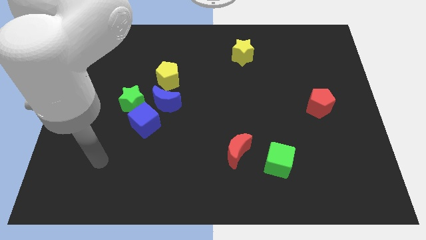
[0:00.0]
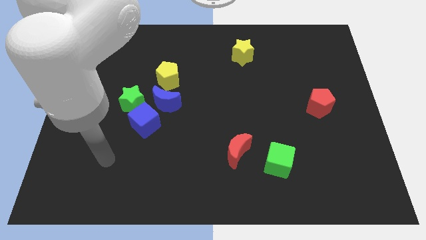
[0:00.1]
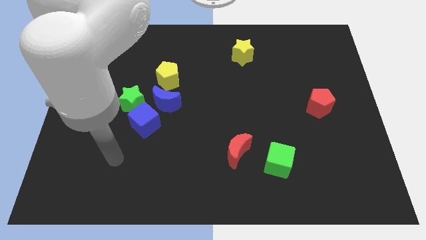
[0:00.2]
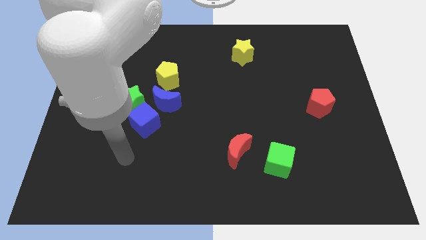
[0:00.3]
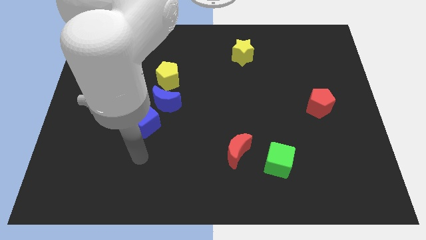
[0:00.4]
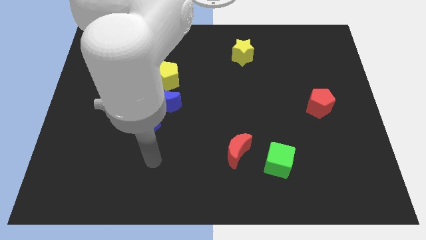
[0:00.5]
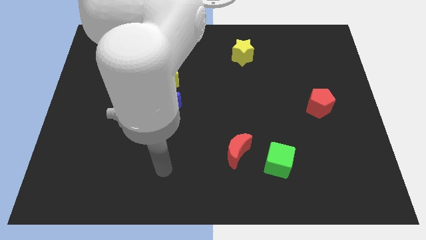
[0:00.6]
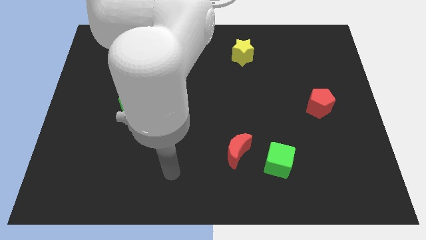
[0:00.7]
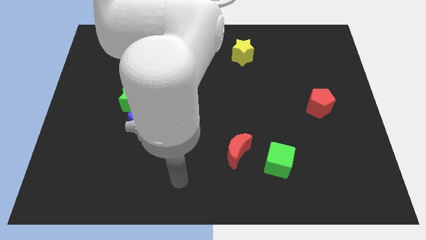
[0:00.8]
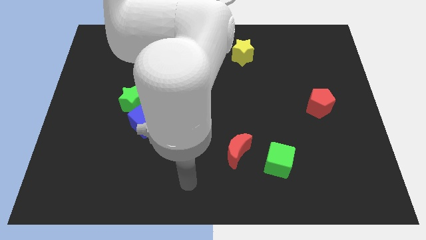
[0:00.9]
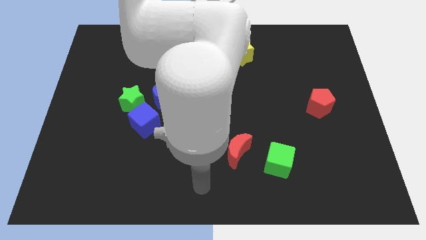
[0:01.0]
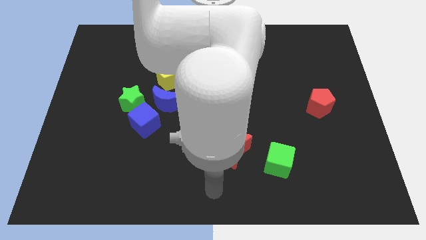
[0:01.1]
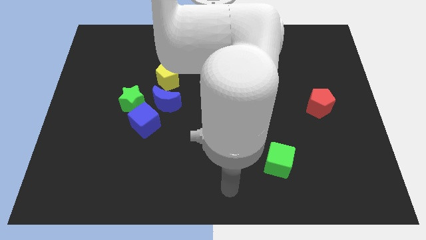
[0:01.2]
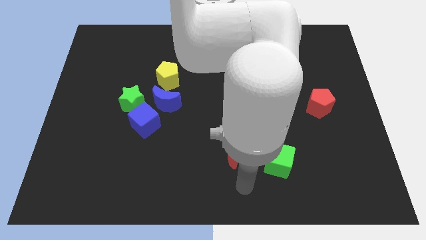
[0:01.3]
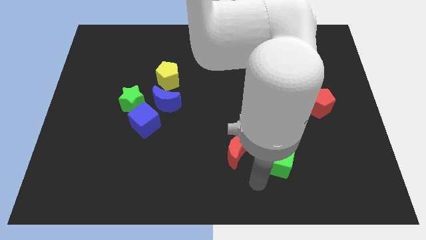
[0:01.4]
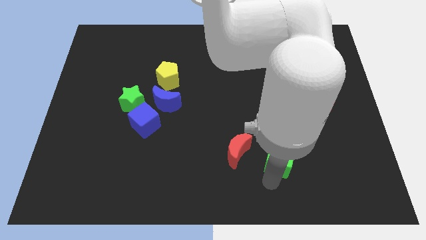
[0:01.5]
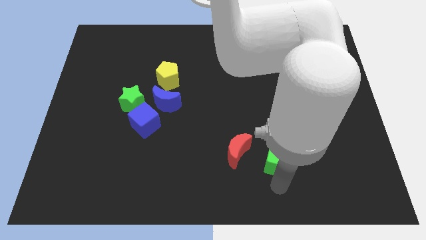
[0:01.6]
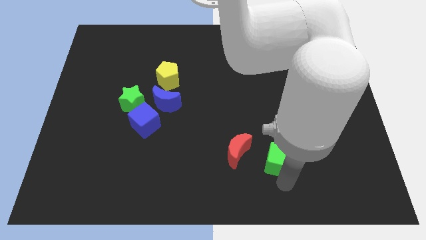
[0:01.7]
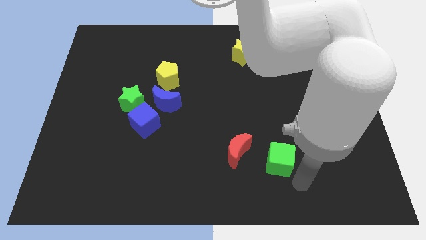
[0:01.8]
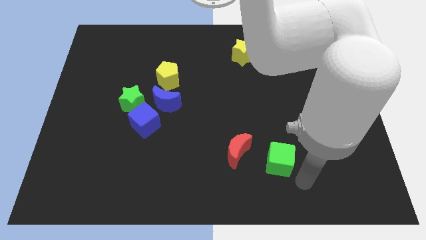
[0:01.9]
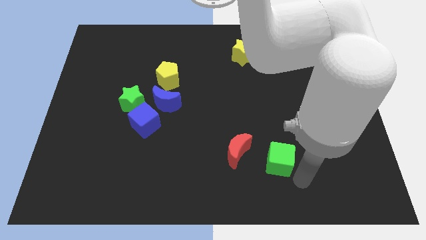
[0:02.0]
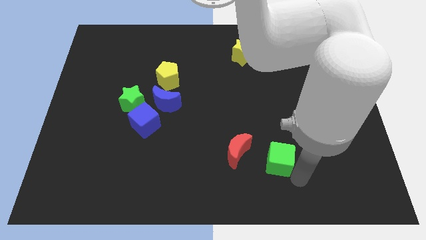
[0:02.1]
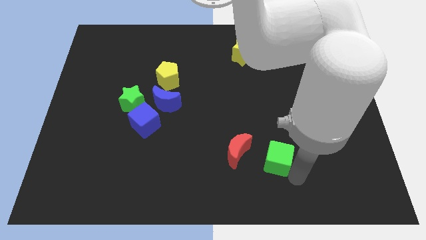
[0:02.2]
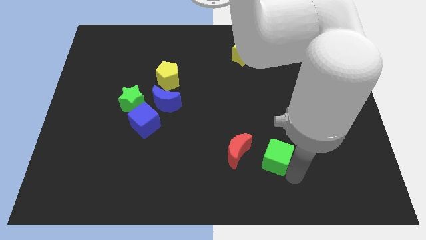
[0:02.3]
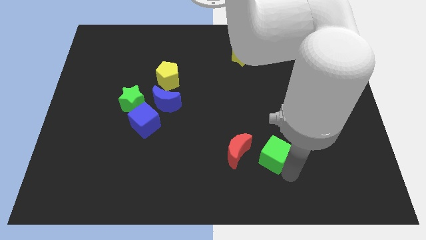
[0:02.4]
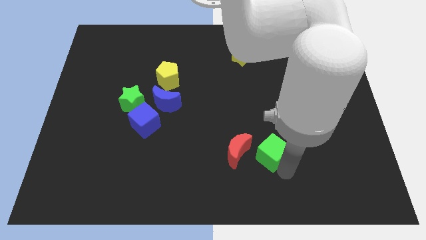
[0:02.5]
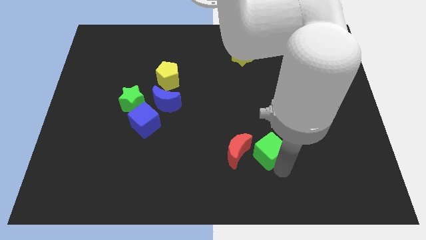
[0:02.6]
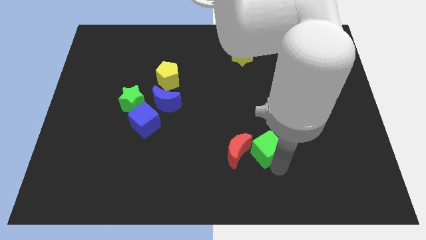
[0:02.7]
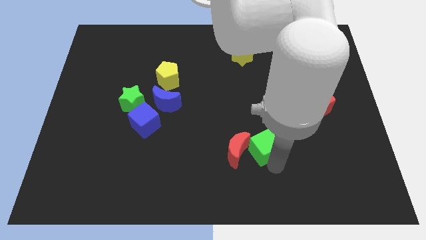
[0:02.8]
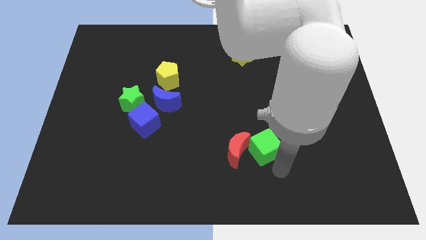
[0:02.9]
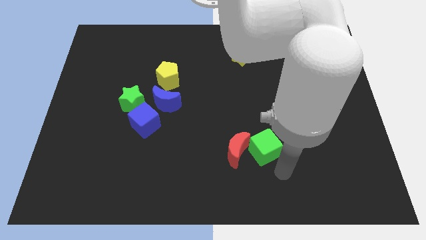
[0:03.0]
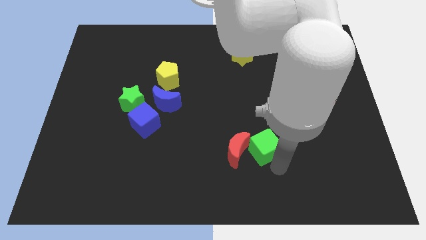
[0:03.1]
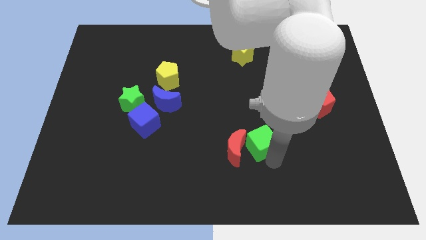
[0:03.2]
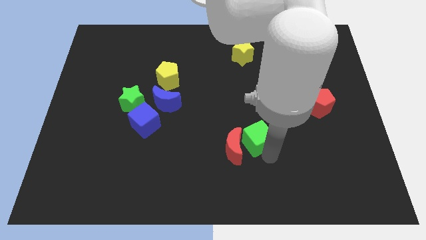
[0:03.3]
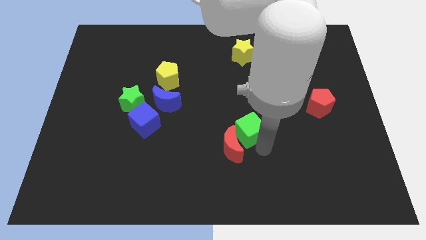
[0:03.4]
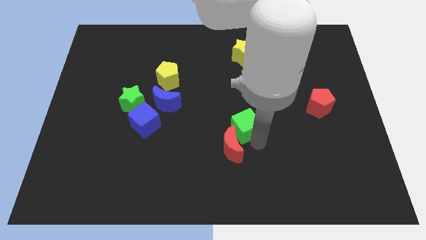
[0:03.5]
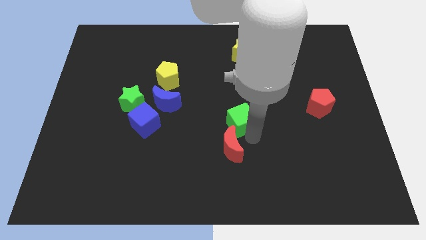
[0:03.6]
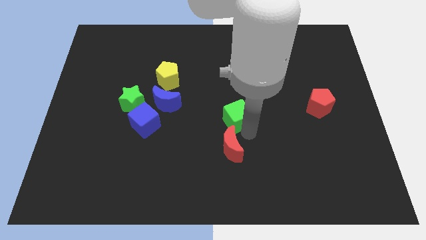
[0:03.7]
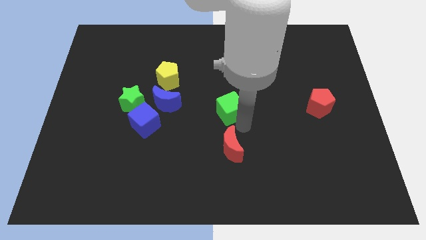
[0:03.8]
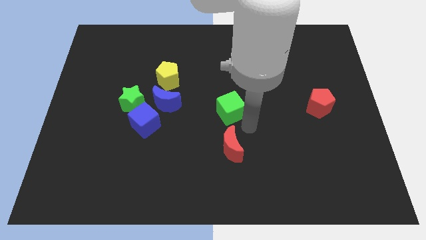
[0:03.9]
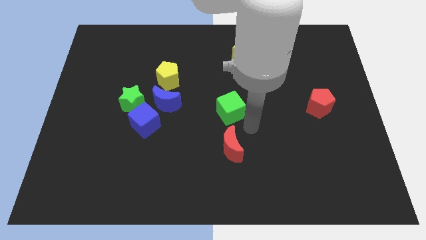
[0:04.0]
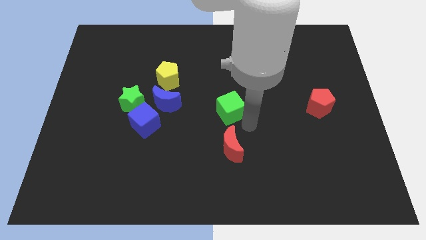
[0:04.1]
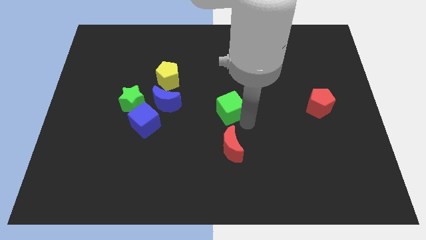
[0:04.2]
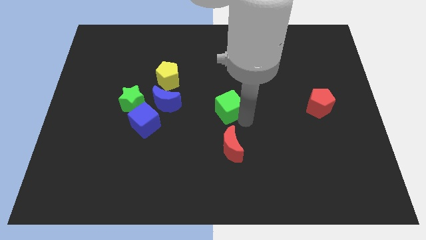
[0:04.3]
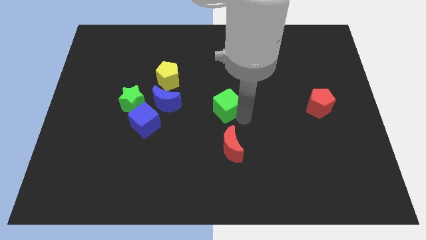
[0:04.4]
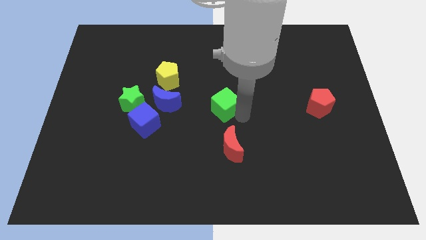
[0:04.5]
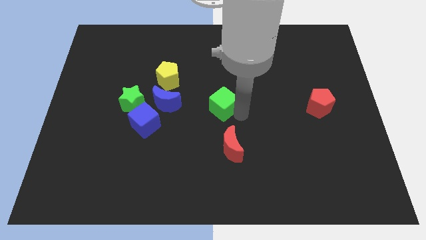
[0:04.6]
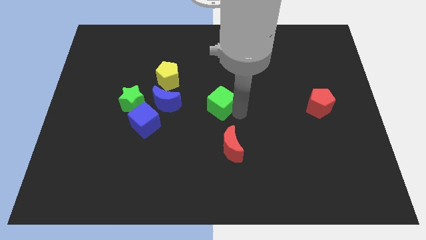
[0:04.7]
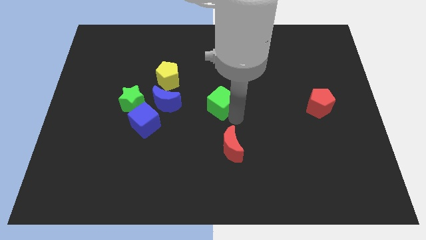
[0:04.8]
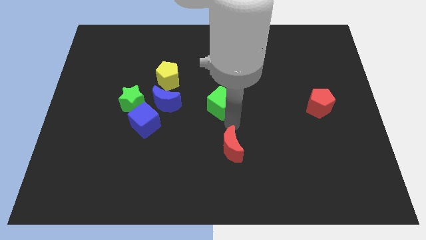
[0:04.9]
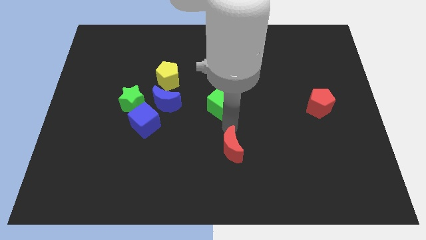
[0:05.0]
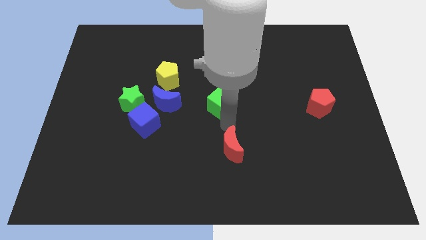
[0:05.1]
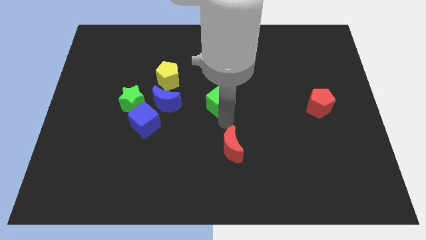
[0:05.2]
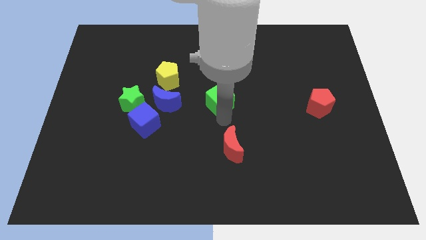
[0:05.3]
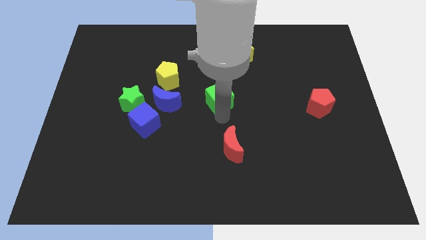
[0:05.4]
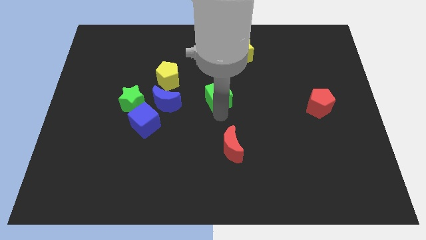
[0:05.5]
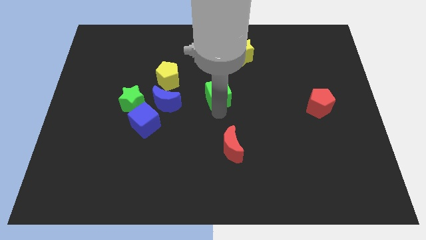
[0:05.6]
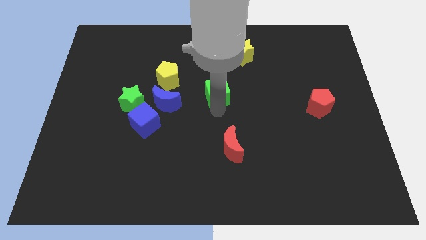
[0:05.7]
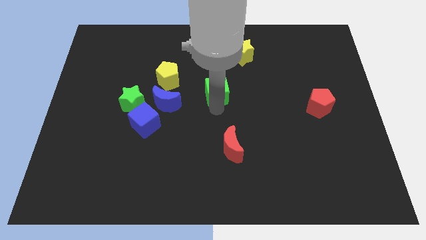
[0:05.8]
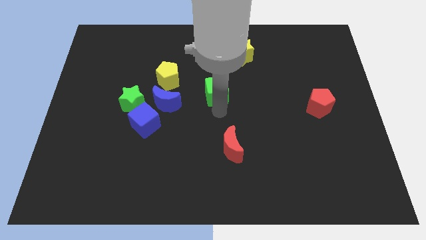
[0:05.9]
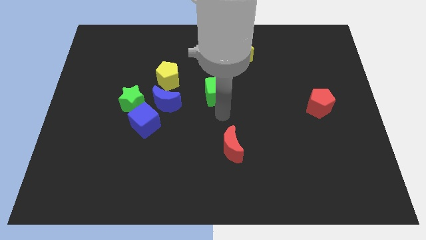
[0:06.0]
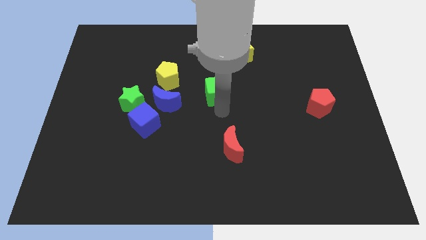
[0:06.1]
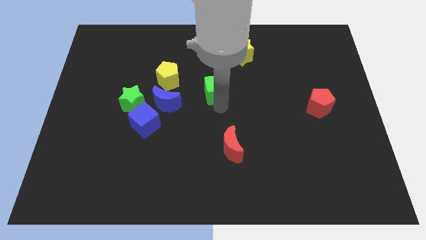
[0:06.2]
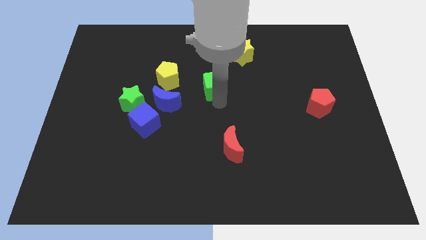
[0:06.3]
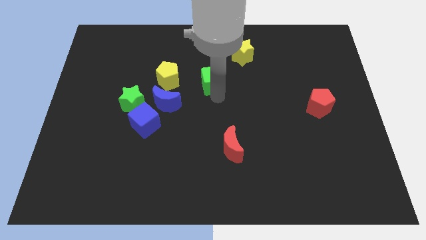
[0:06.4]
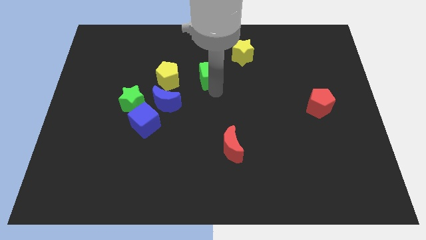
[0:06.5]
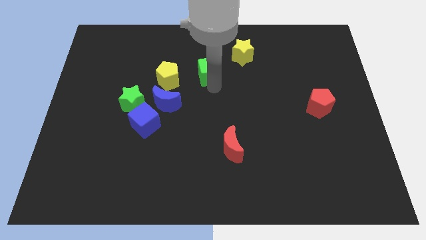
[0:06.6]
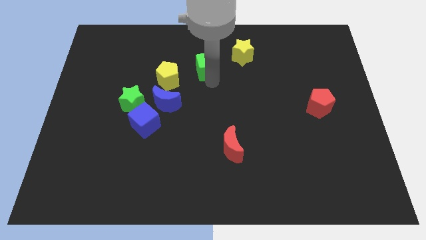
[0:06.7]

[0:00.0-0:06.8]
put the green cube to the left side of the yellow star
